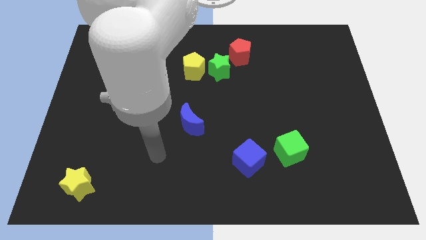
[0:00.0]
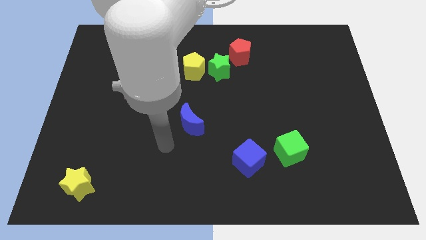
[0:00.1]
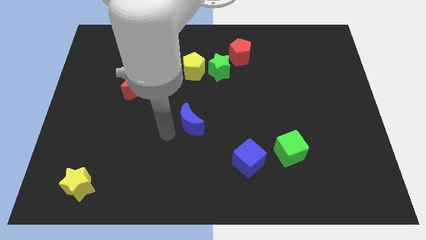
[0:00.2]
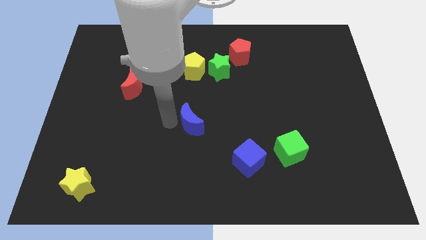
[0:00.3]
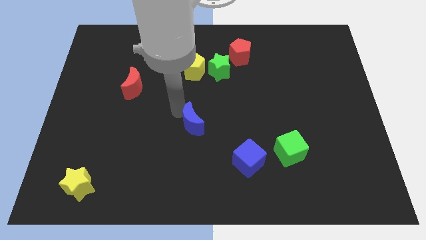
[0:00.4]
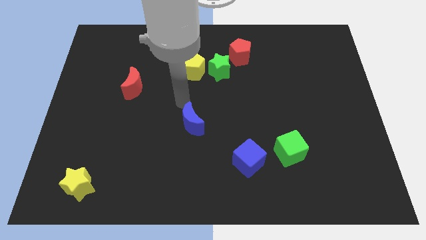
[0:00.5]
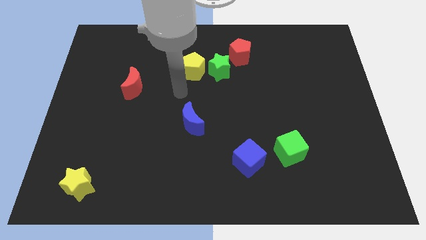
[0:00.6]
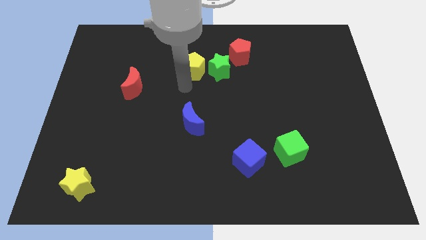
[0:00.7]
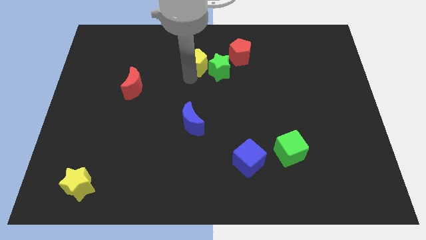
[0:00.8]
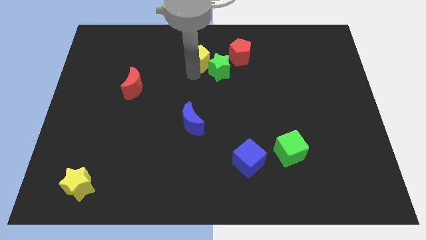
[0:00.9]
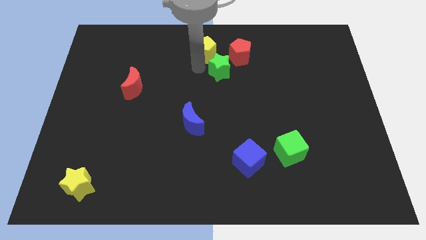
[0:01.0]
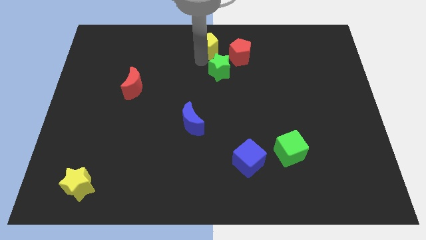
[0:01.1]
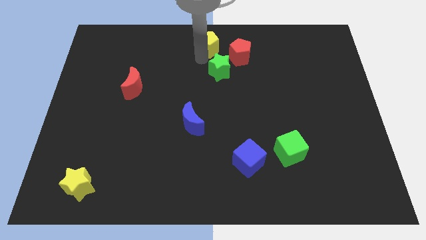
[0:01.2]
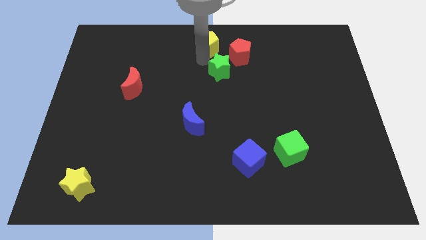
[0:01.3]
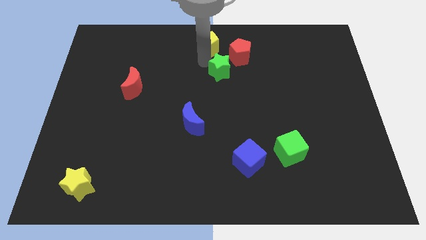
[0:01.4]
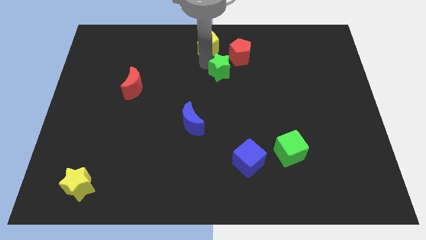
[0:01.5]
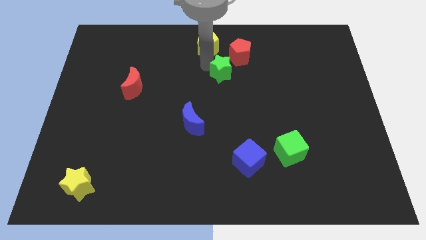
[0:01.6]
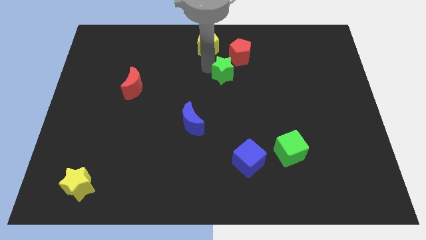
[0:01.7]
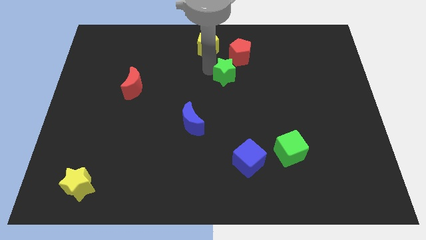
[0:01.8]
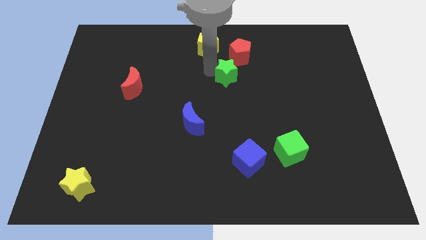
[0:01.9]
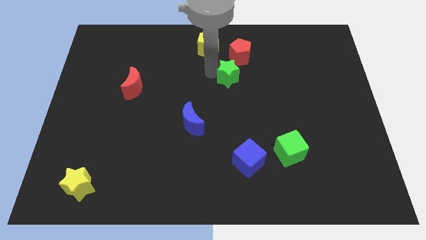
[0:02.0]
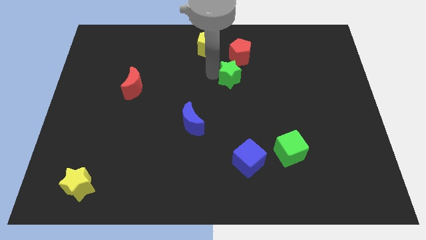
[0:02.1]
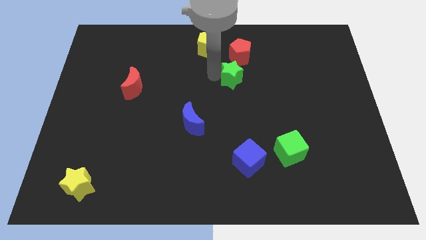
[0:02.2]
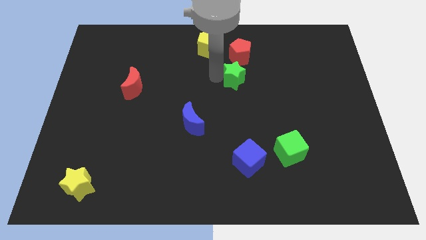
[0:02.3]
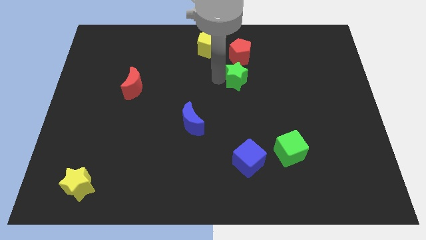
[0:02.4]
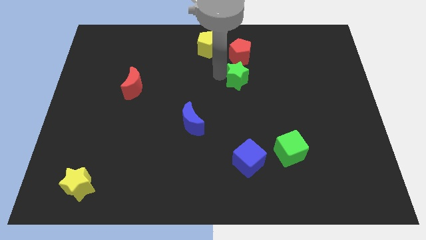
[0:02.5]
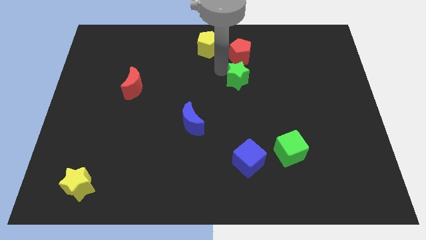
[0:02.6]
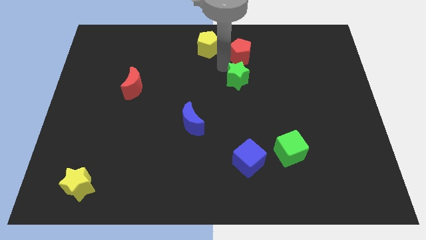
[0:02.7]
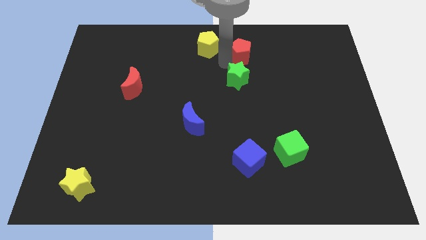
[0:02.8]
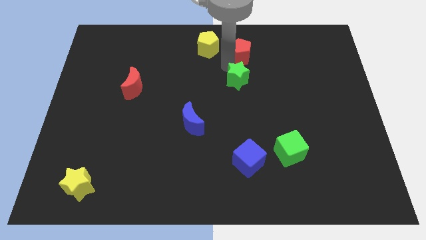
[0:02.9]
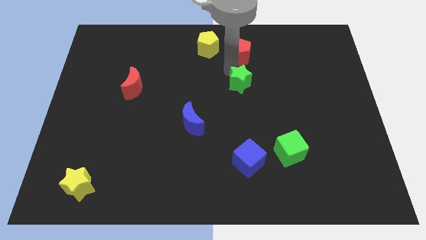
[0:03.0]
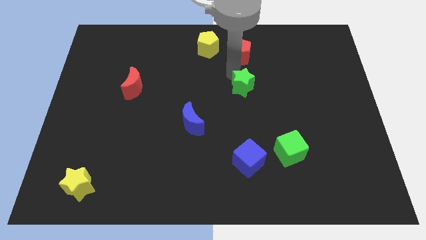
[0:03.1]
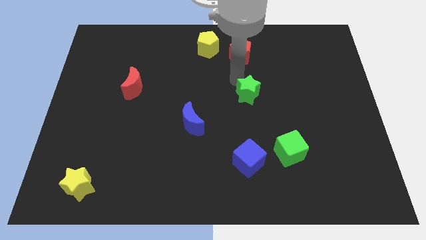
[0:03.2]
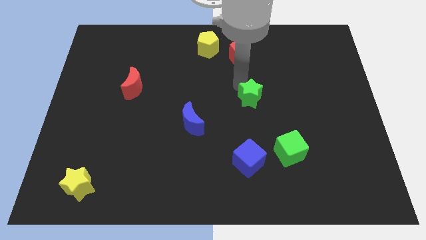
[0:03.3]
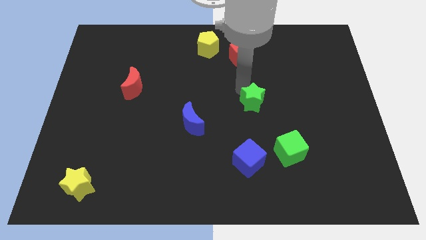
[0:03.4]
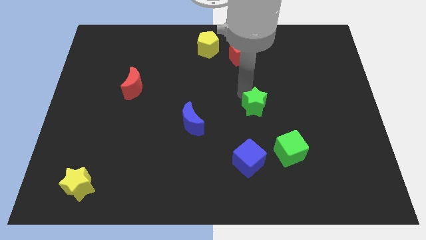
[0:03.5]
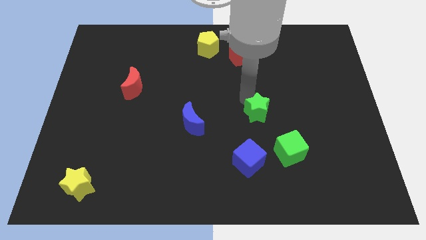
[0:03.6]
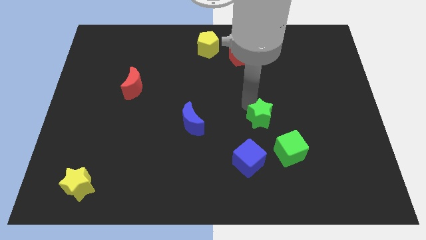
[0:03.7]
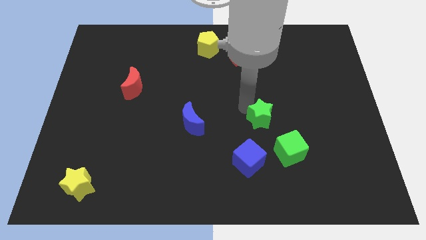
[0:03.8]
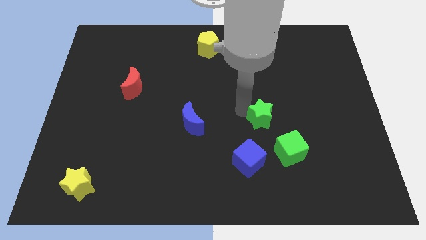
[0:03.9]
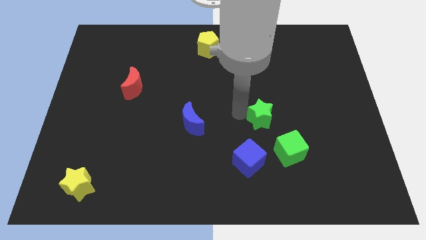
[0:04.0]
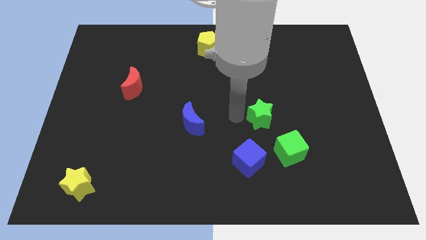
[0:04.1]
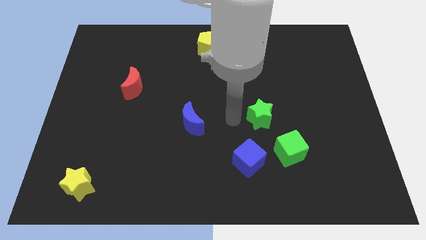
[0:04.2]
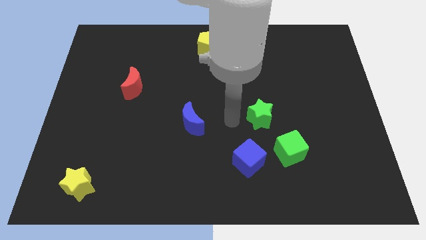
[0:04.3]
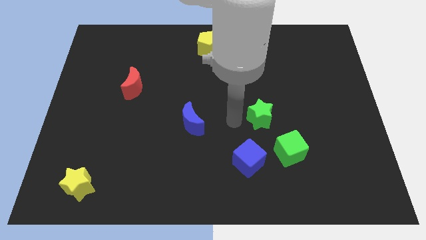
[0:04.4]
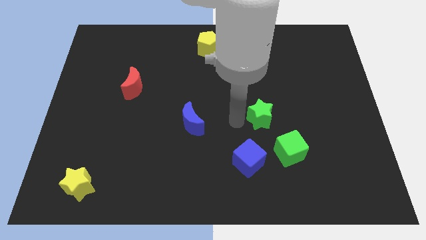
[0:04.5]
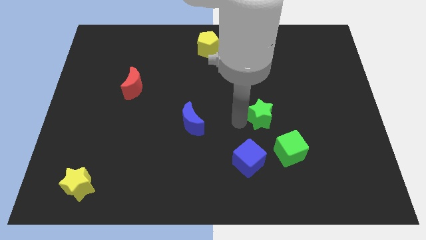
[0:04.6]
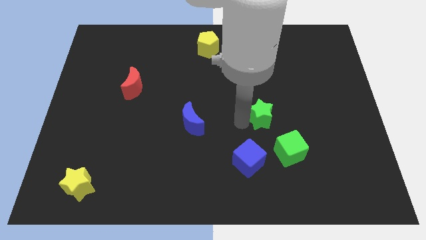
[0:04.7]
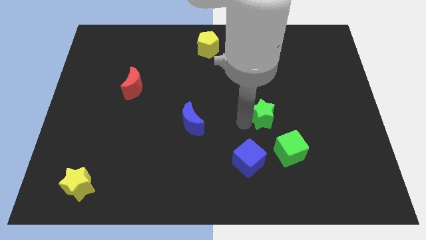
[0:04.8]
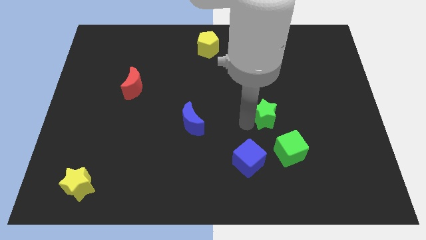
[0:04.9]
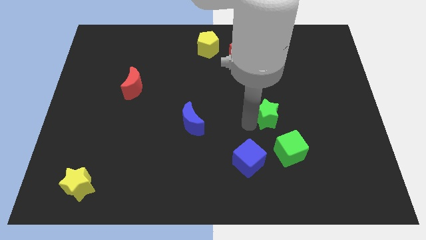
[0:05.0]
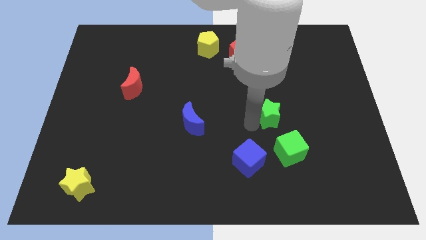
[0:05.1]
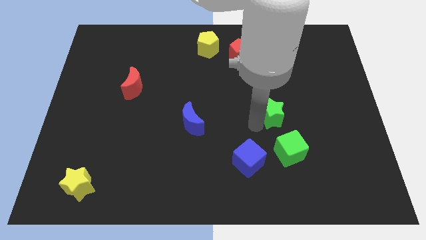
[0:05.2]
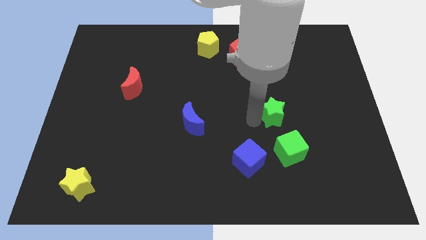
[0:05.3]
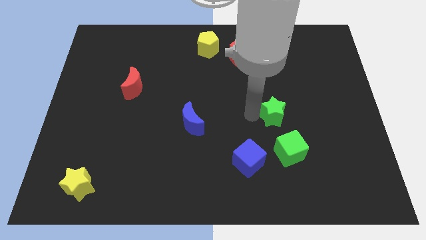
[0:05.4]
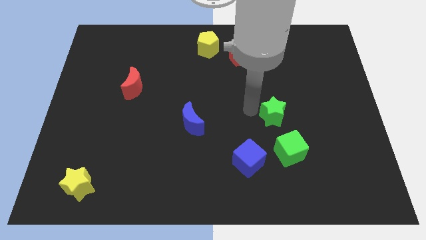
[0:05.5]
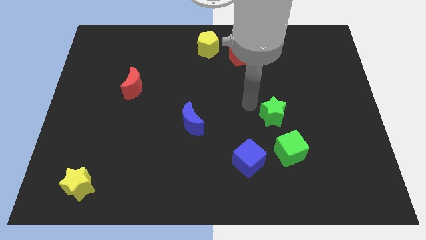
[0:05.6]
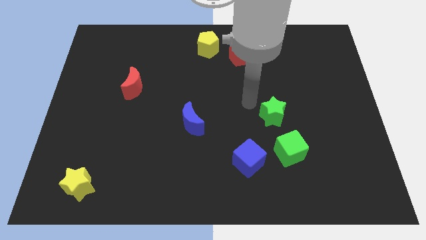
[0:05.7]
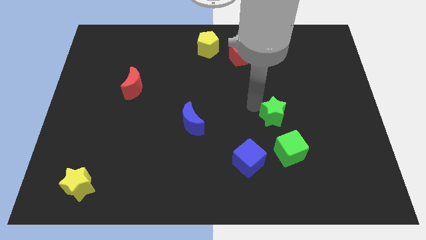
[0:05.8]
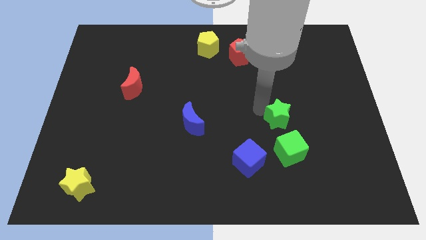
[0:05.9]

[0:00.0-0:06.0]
slide the green star down and to the right diagonally

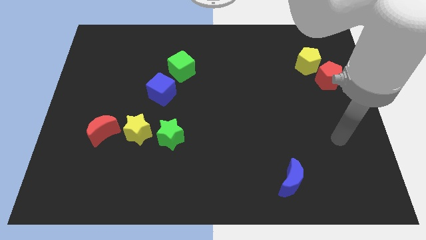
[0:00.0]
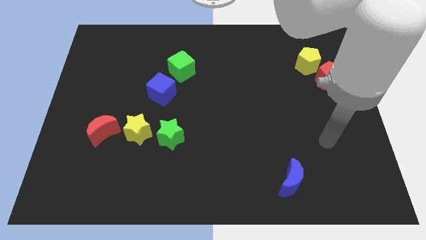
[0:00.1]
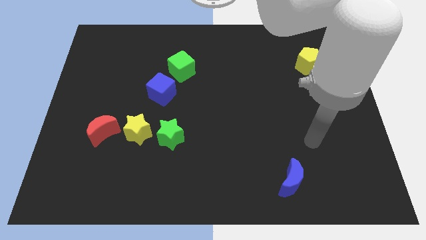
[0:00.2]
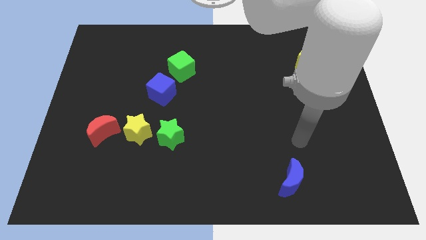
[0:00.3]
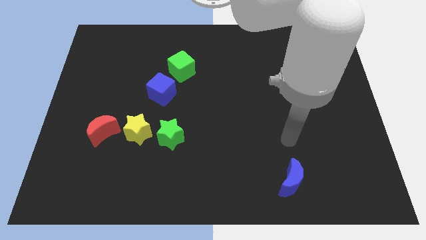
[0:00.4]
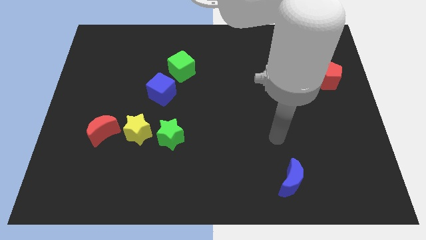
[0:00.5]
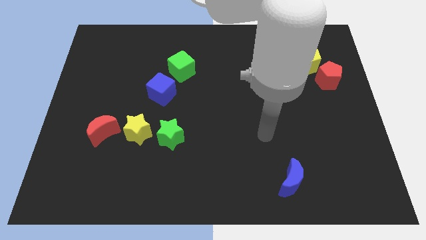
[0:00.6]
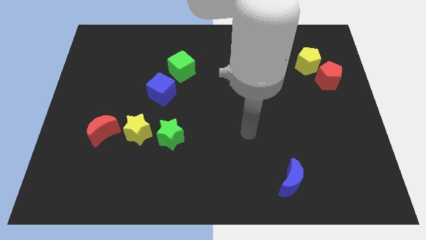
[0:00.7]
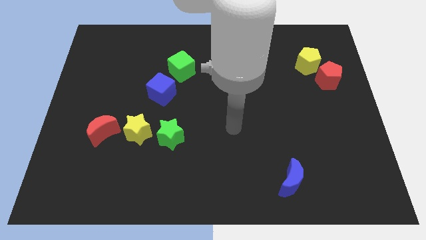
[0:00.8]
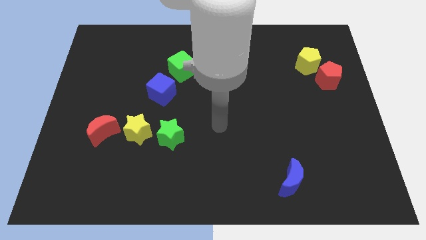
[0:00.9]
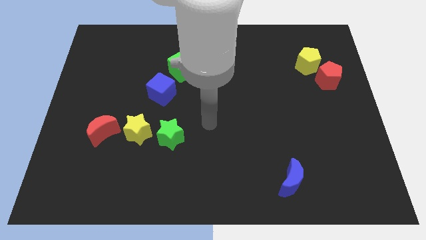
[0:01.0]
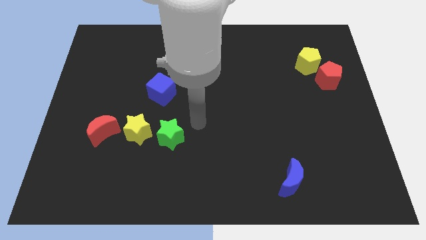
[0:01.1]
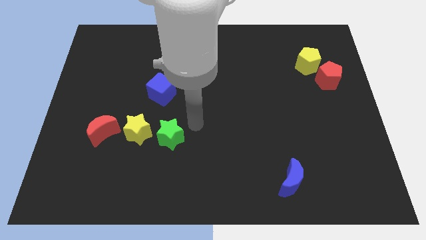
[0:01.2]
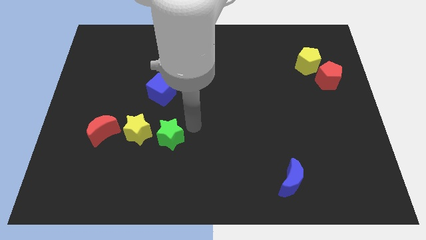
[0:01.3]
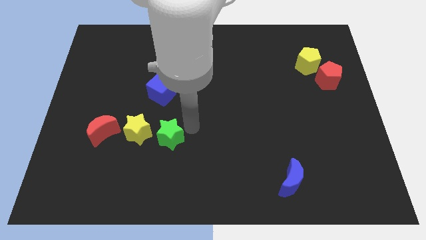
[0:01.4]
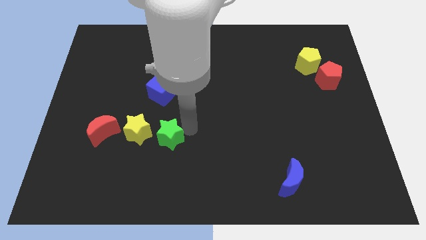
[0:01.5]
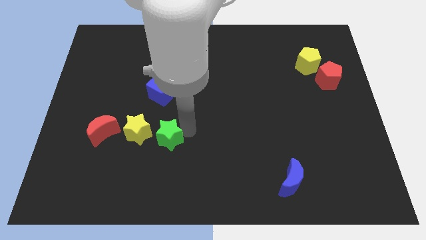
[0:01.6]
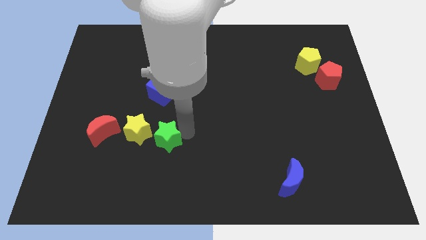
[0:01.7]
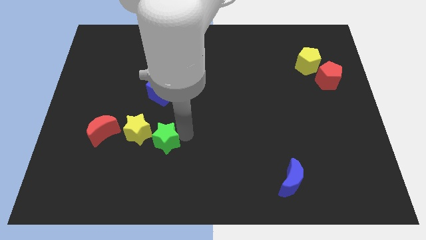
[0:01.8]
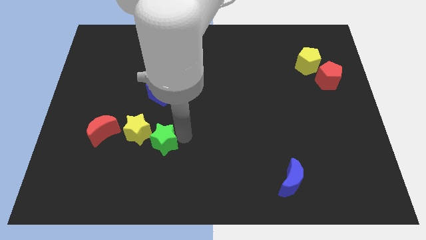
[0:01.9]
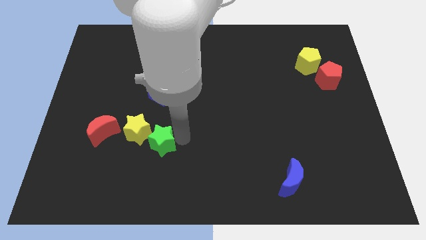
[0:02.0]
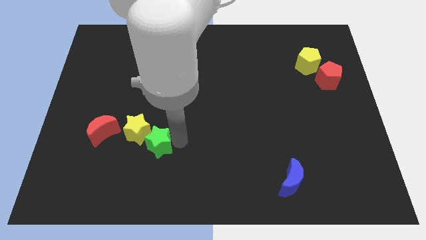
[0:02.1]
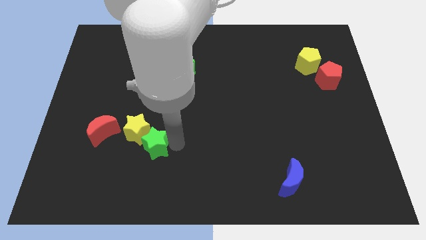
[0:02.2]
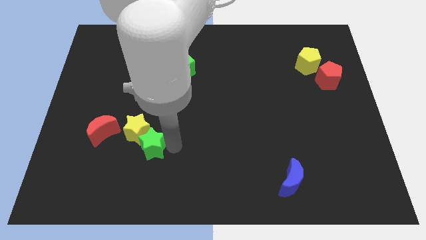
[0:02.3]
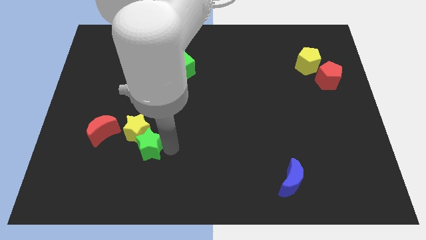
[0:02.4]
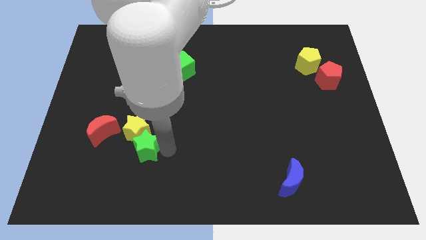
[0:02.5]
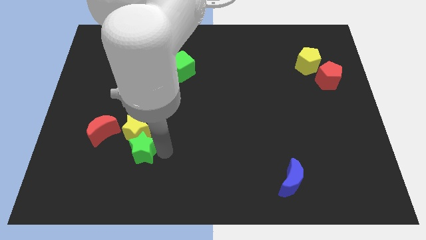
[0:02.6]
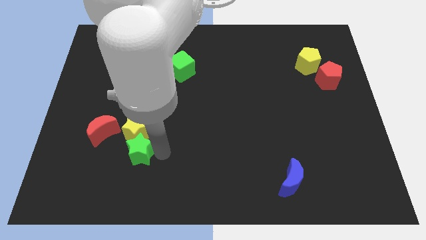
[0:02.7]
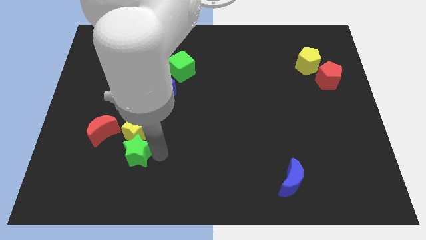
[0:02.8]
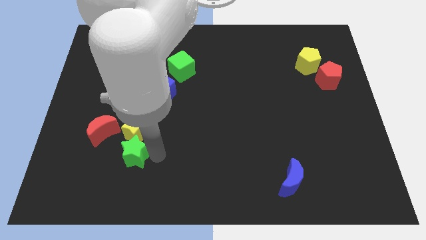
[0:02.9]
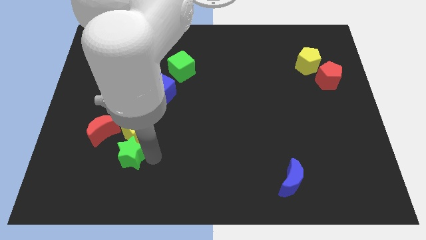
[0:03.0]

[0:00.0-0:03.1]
move the green star left a little bit
